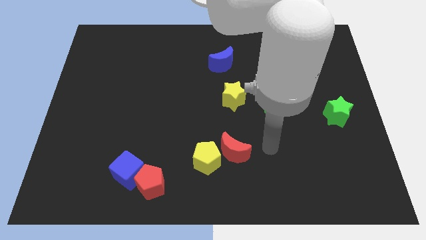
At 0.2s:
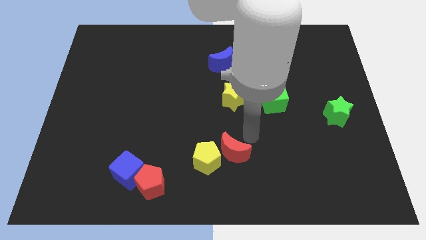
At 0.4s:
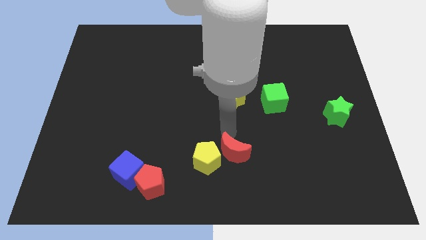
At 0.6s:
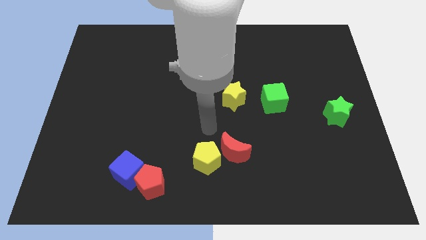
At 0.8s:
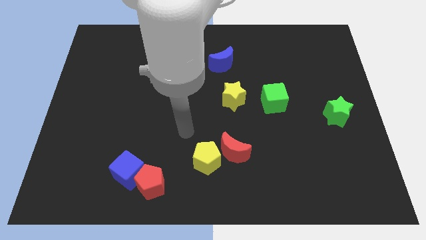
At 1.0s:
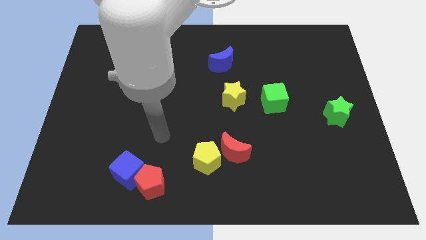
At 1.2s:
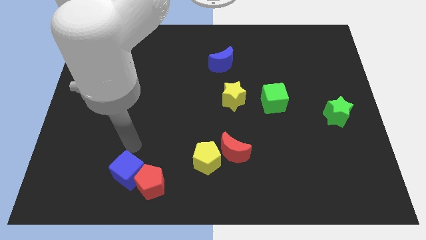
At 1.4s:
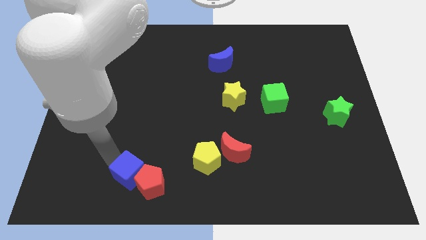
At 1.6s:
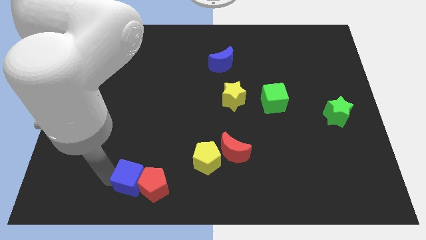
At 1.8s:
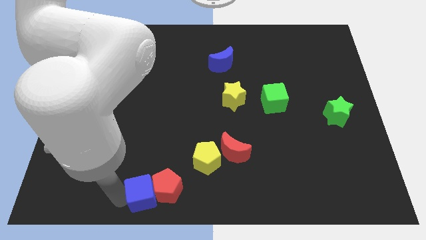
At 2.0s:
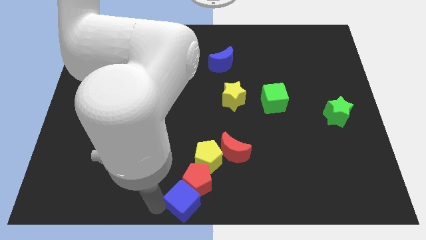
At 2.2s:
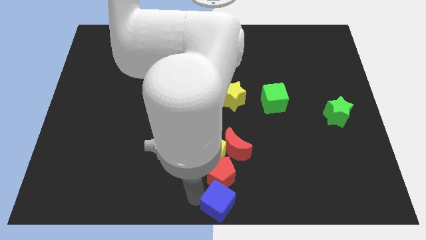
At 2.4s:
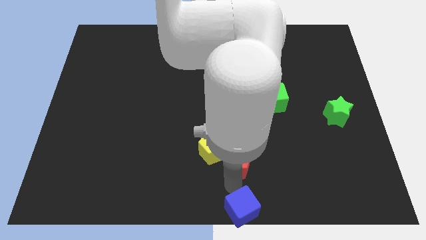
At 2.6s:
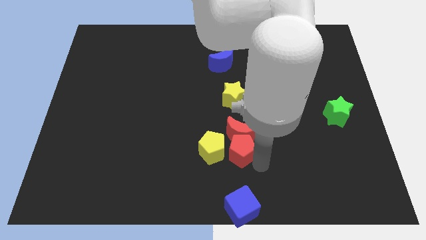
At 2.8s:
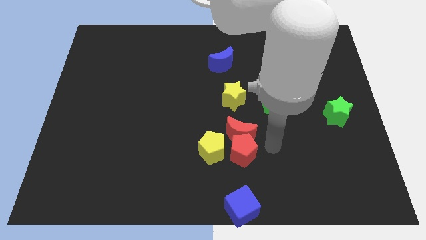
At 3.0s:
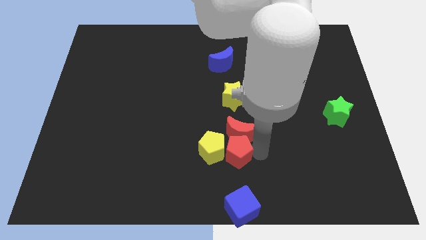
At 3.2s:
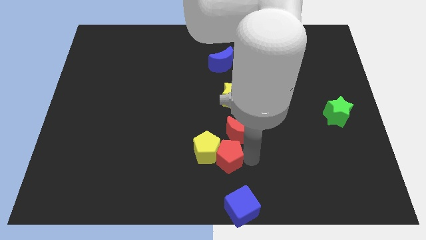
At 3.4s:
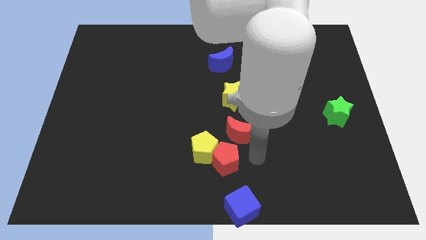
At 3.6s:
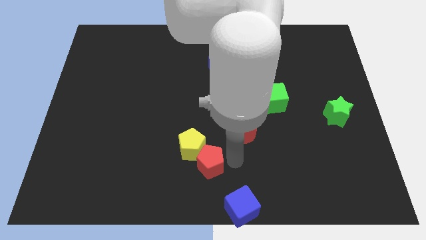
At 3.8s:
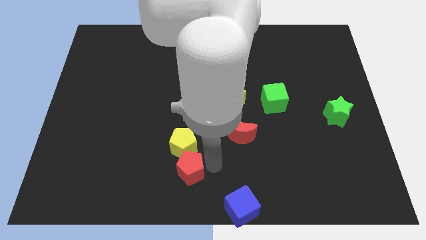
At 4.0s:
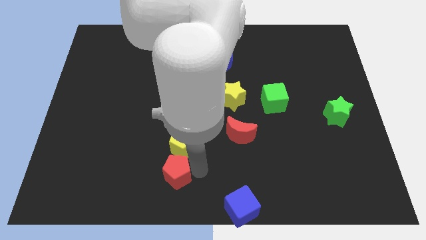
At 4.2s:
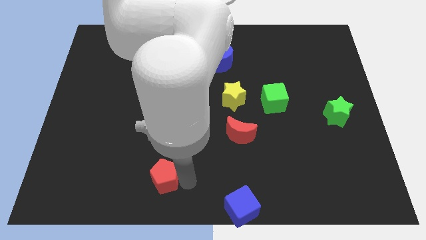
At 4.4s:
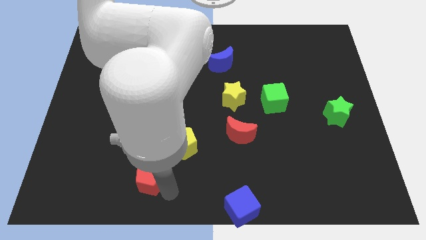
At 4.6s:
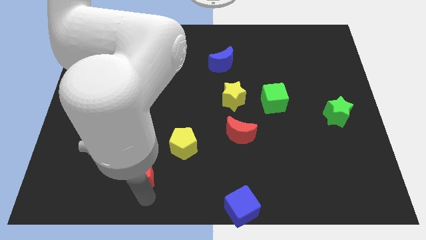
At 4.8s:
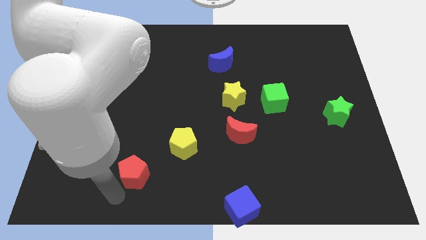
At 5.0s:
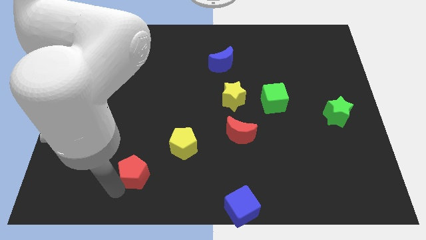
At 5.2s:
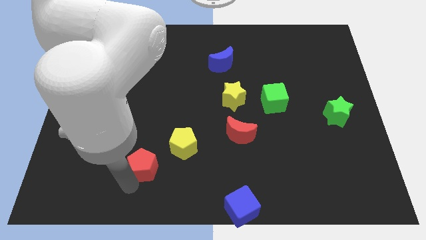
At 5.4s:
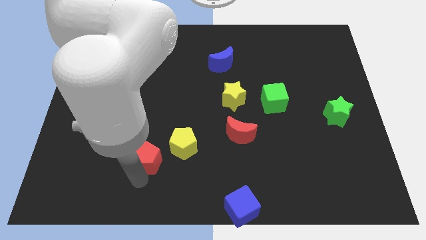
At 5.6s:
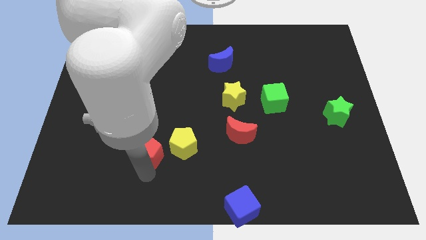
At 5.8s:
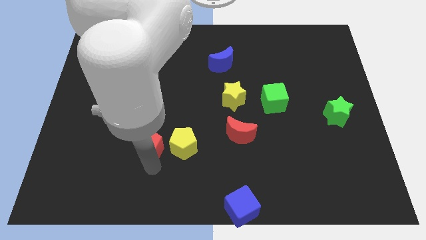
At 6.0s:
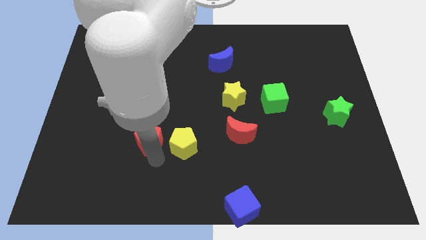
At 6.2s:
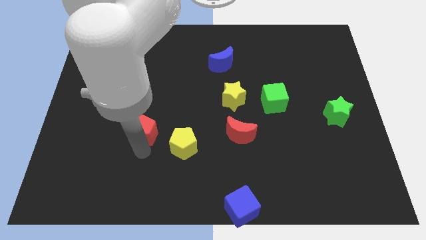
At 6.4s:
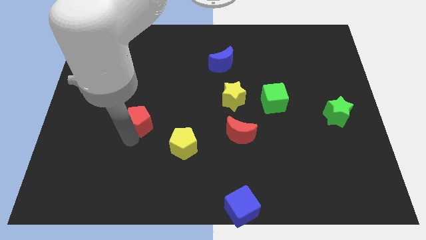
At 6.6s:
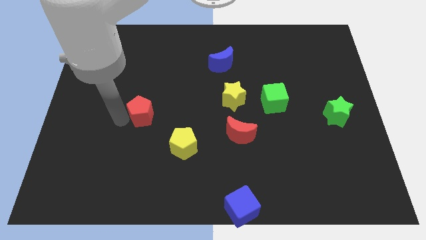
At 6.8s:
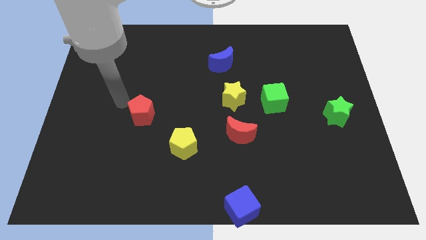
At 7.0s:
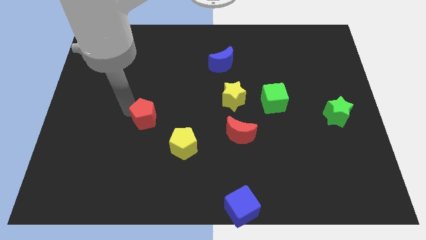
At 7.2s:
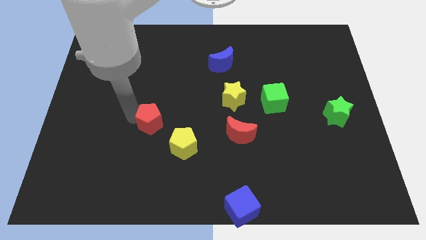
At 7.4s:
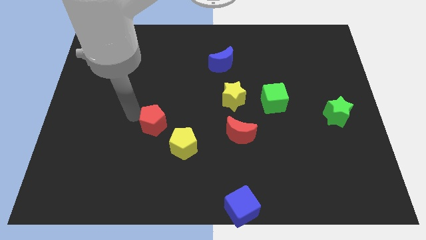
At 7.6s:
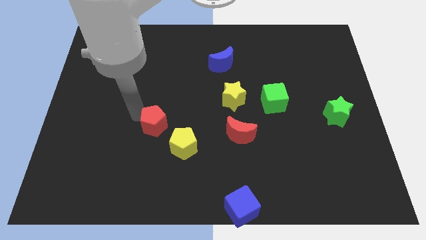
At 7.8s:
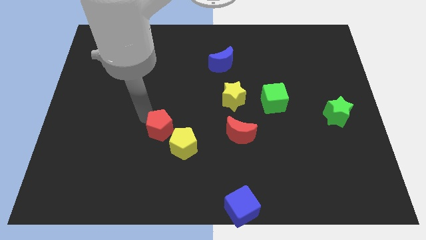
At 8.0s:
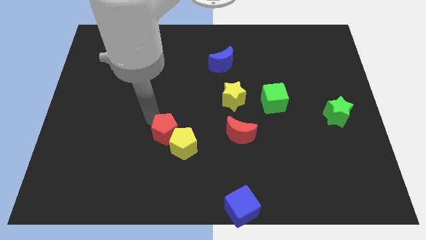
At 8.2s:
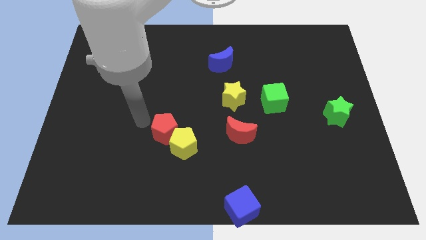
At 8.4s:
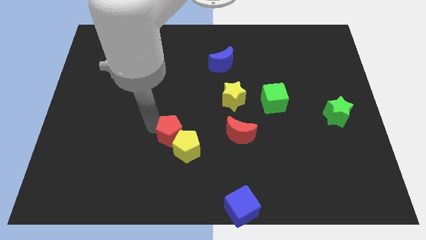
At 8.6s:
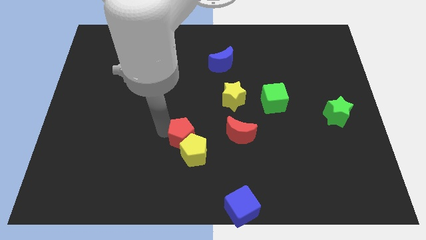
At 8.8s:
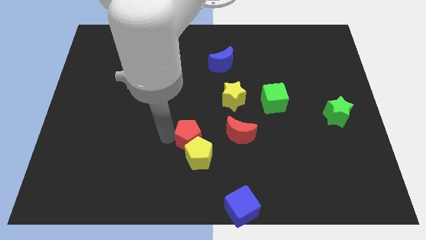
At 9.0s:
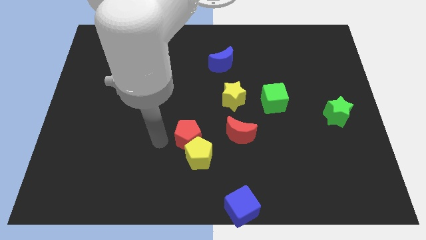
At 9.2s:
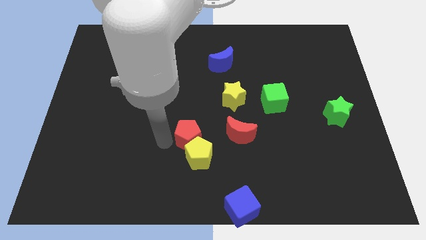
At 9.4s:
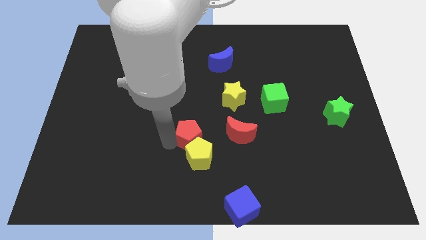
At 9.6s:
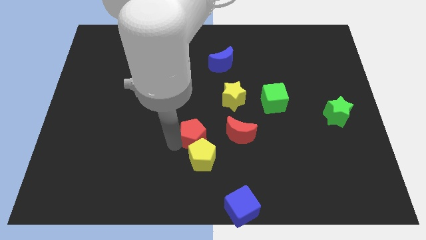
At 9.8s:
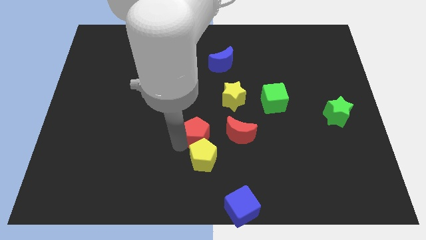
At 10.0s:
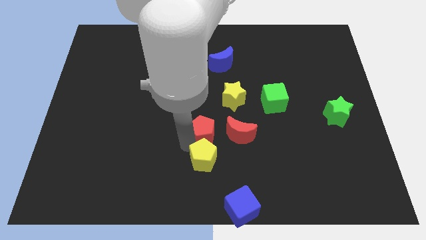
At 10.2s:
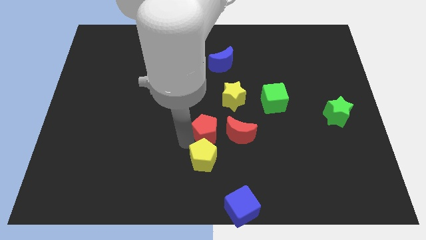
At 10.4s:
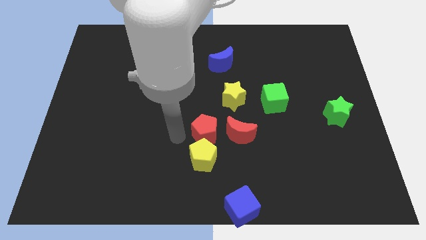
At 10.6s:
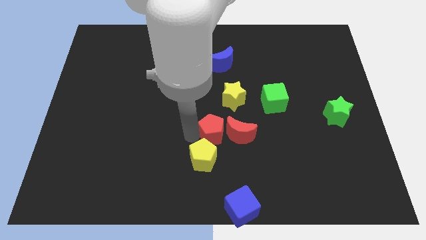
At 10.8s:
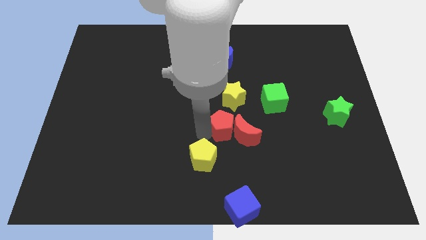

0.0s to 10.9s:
slide the red pentagon diagonally upwards and right

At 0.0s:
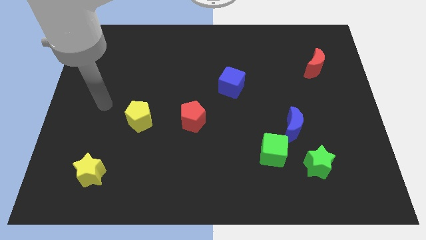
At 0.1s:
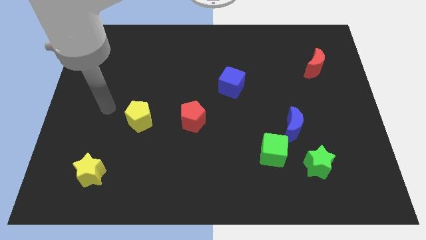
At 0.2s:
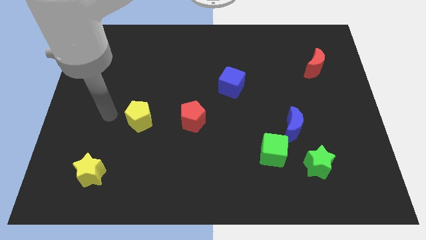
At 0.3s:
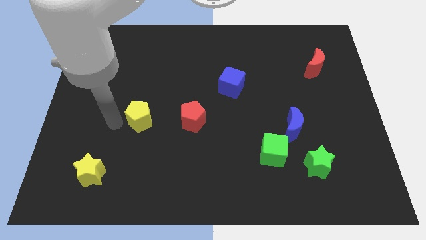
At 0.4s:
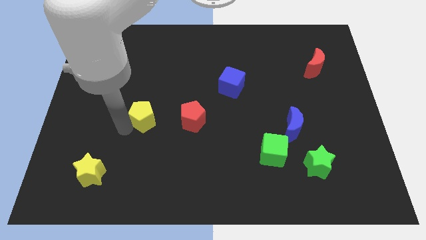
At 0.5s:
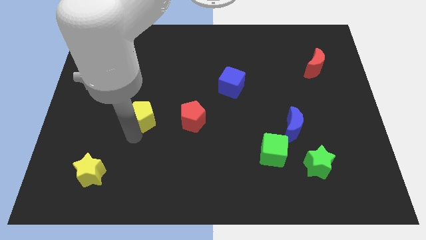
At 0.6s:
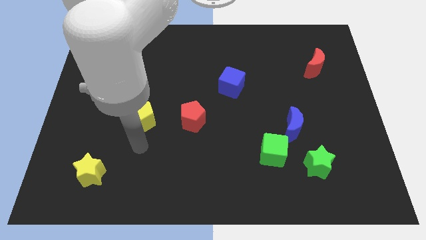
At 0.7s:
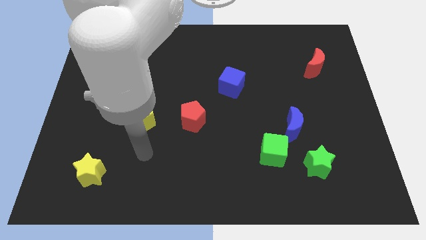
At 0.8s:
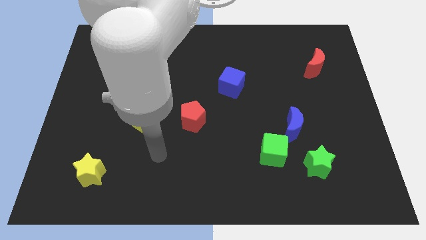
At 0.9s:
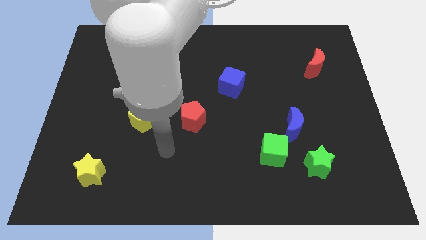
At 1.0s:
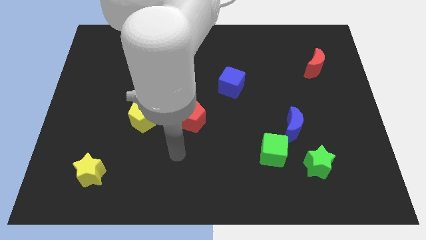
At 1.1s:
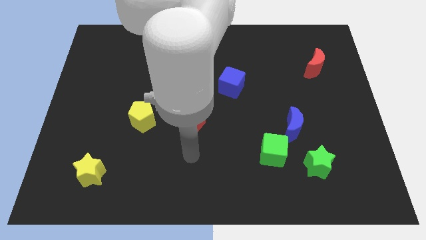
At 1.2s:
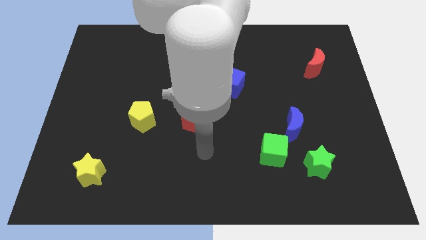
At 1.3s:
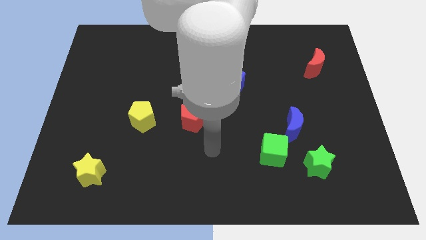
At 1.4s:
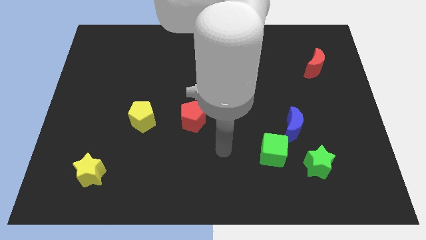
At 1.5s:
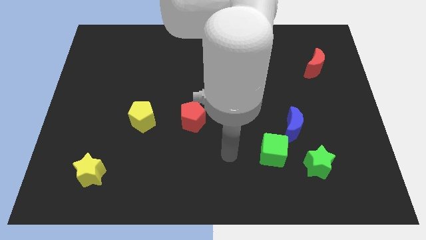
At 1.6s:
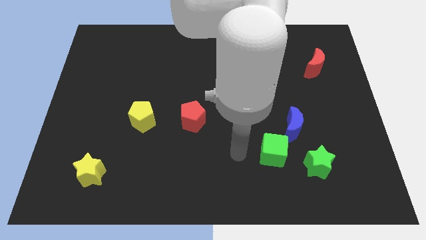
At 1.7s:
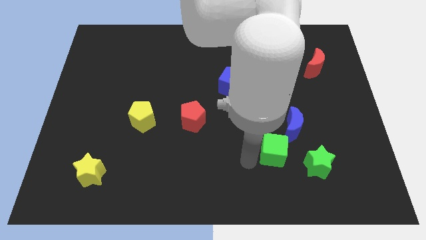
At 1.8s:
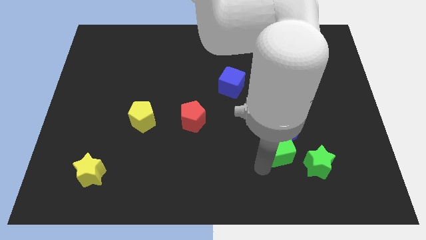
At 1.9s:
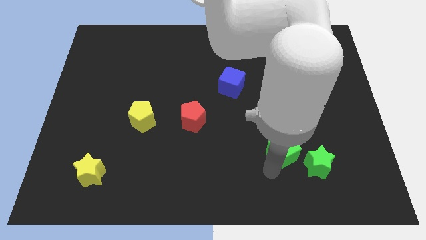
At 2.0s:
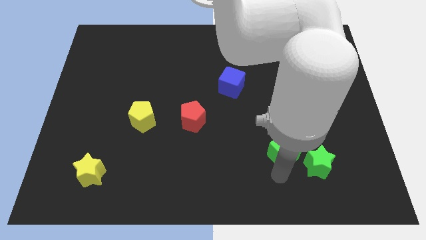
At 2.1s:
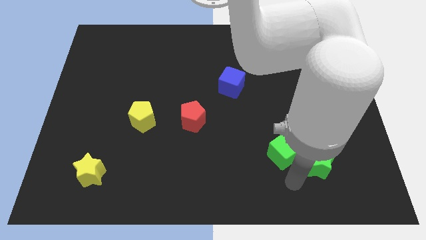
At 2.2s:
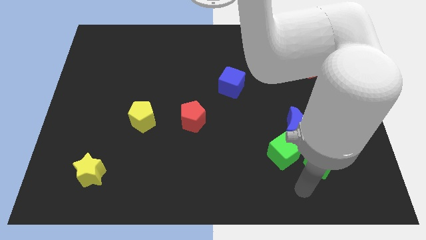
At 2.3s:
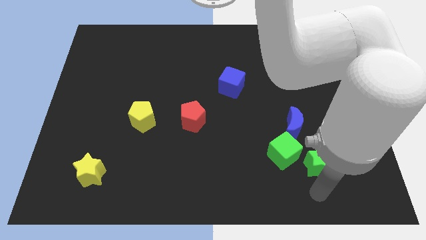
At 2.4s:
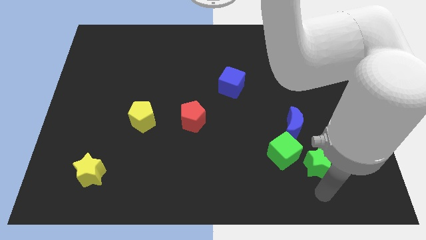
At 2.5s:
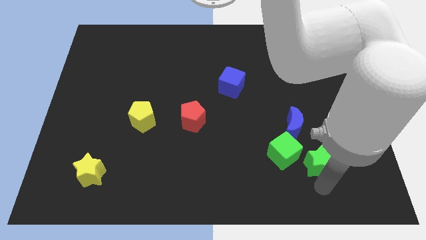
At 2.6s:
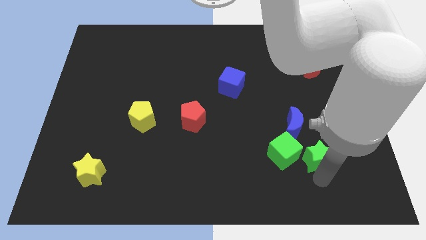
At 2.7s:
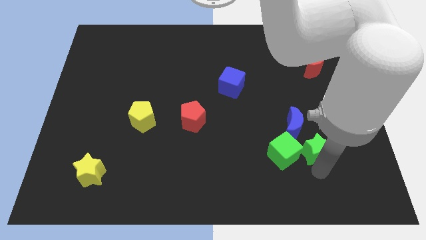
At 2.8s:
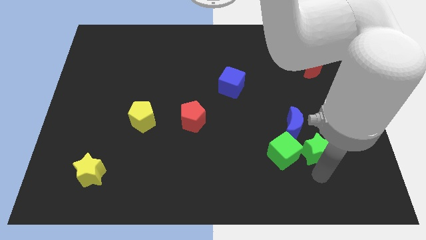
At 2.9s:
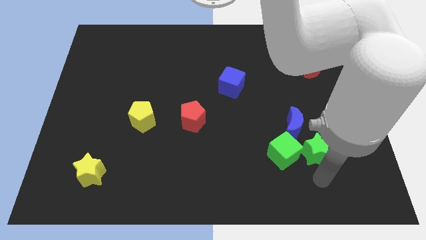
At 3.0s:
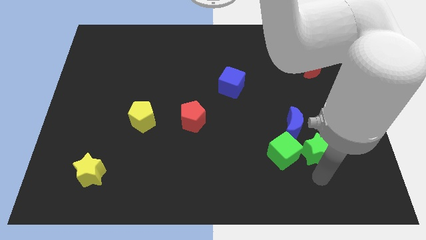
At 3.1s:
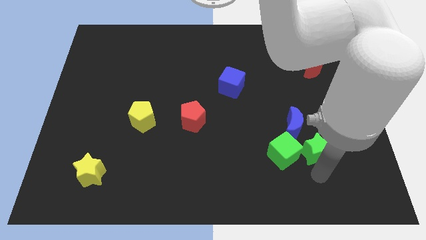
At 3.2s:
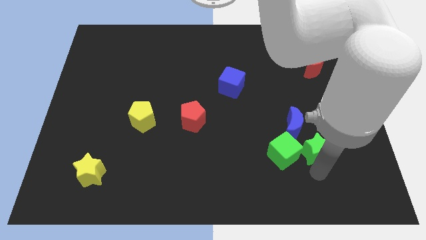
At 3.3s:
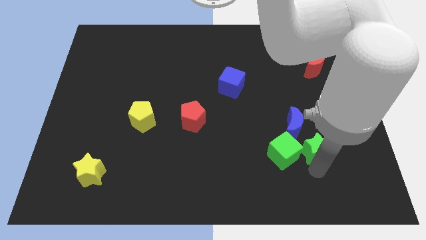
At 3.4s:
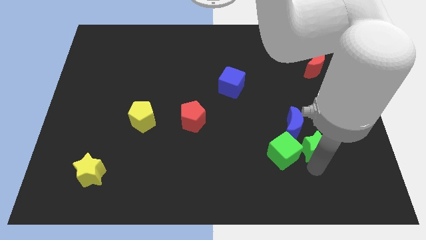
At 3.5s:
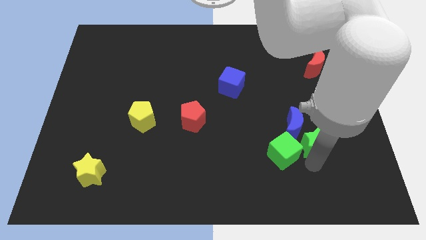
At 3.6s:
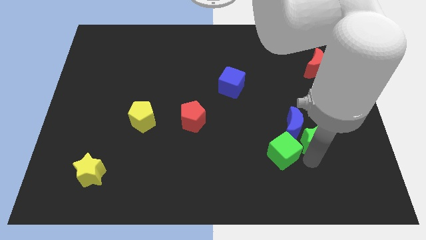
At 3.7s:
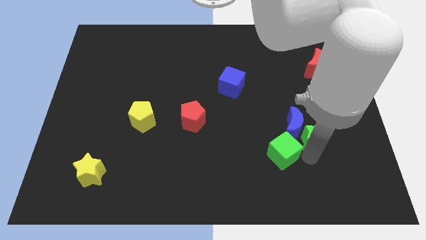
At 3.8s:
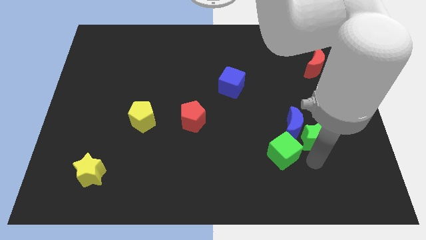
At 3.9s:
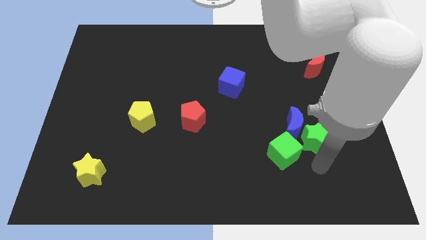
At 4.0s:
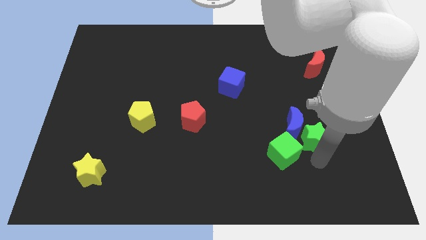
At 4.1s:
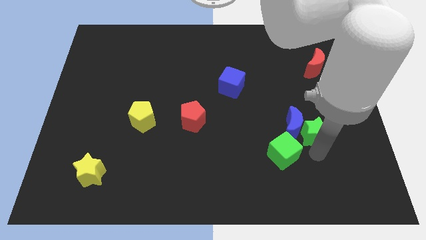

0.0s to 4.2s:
slide the green star a little bit up
